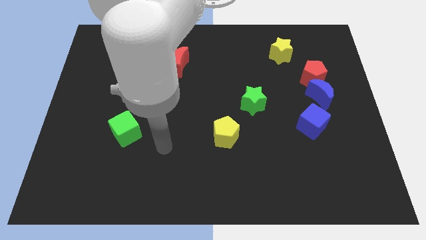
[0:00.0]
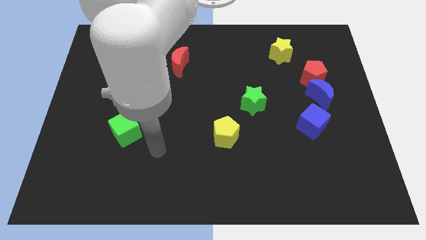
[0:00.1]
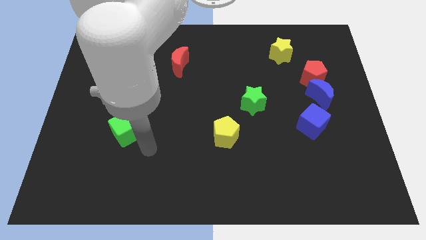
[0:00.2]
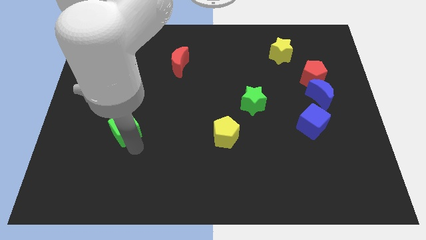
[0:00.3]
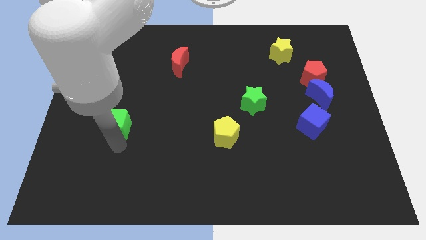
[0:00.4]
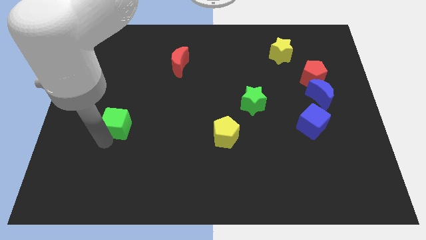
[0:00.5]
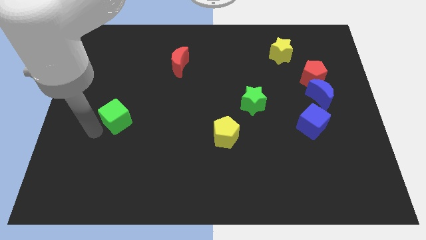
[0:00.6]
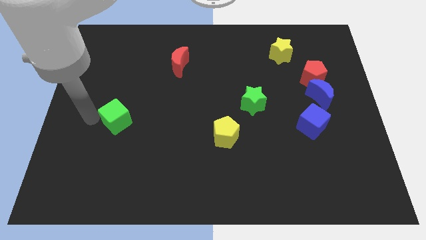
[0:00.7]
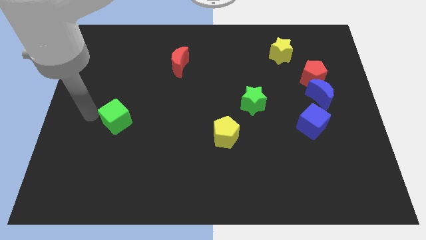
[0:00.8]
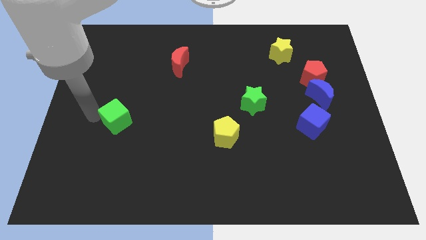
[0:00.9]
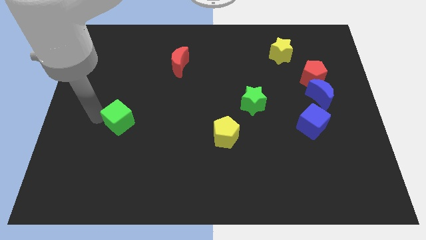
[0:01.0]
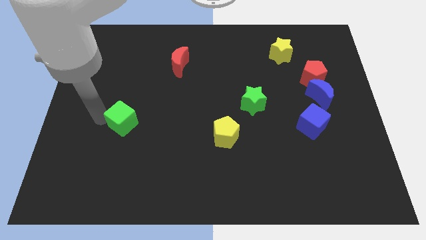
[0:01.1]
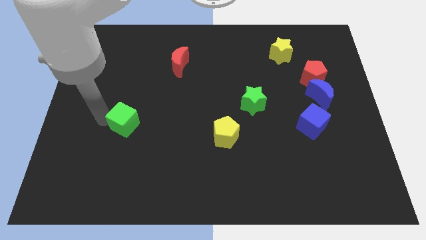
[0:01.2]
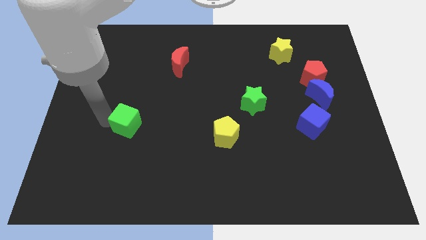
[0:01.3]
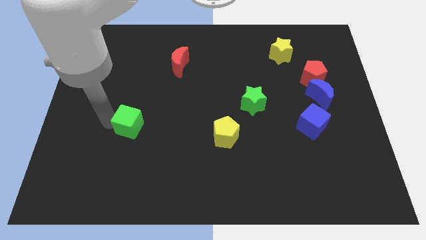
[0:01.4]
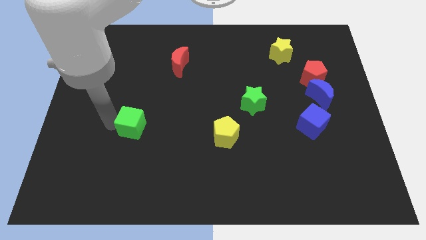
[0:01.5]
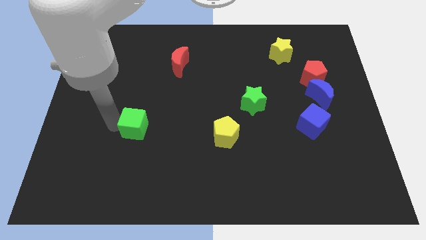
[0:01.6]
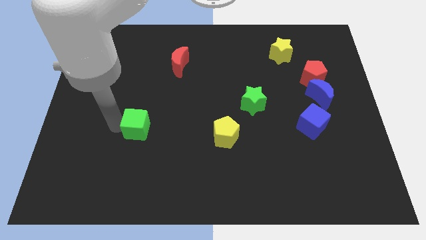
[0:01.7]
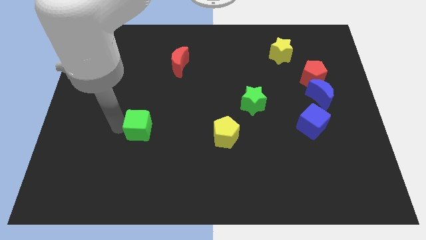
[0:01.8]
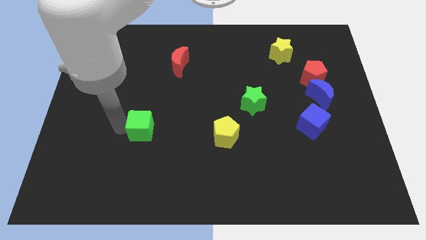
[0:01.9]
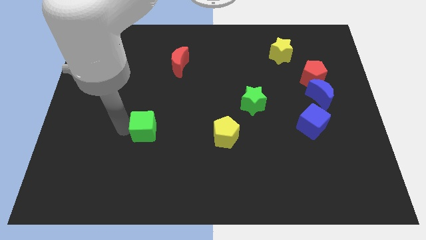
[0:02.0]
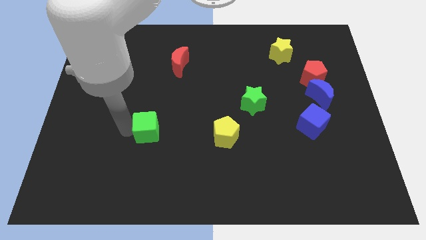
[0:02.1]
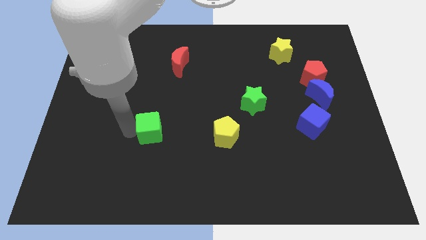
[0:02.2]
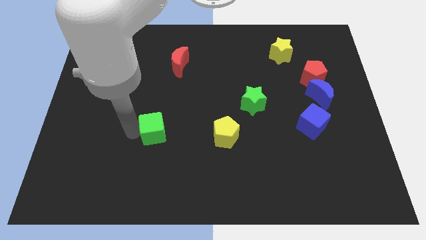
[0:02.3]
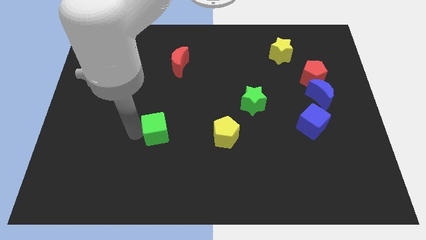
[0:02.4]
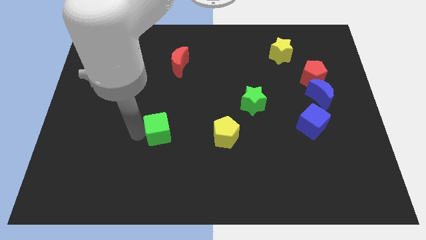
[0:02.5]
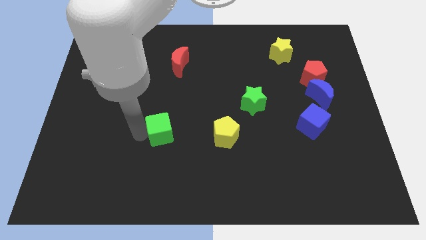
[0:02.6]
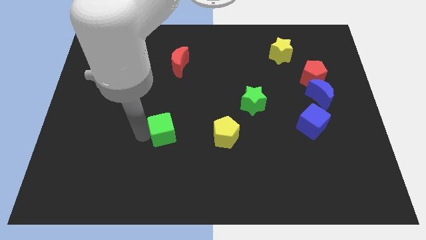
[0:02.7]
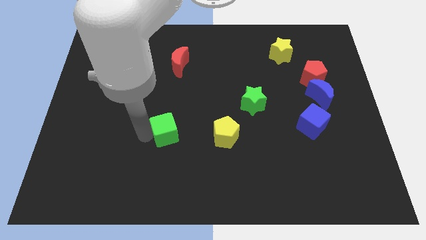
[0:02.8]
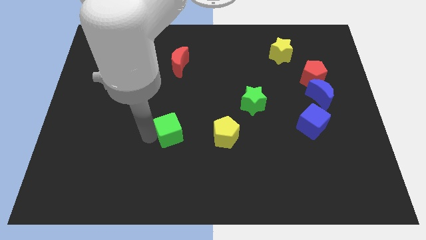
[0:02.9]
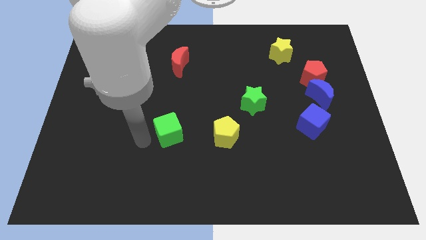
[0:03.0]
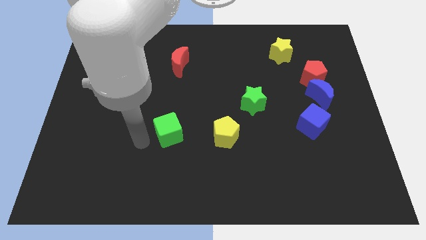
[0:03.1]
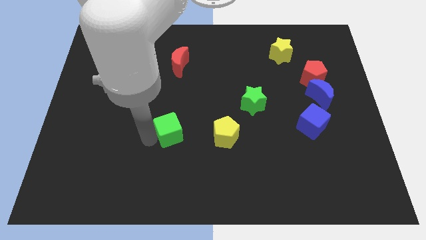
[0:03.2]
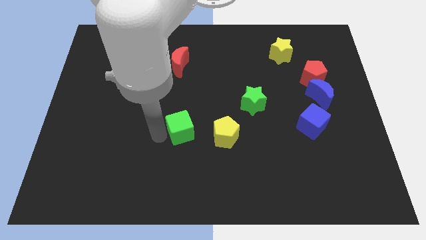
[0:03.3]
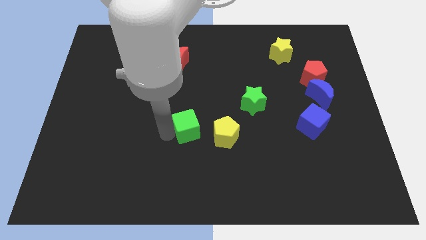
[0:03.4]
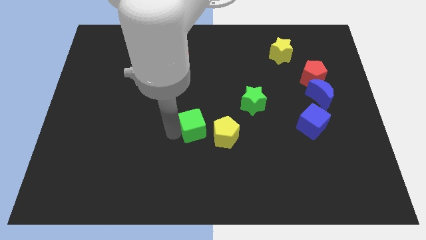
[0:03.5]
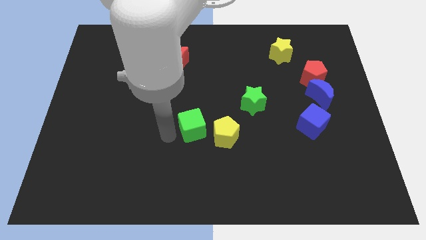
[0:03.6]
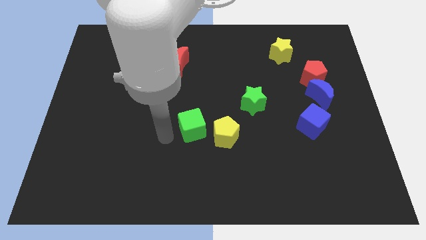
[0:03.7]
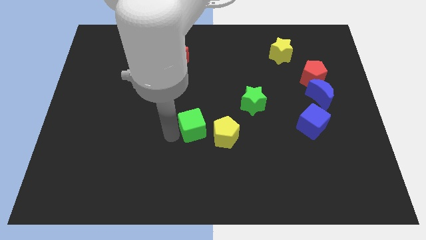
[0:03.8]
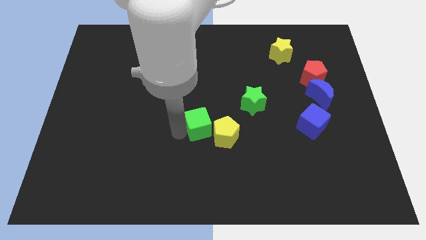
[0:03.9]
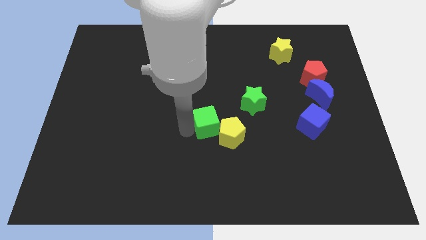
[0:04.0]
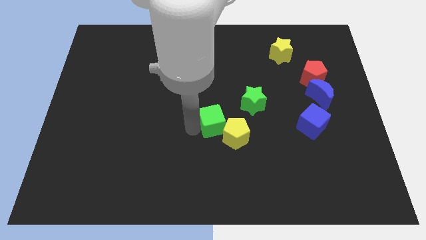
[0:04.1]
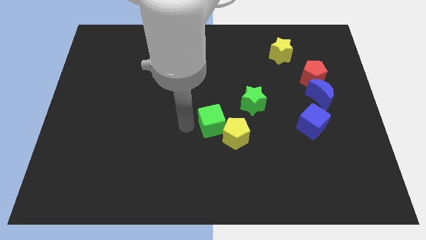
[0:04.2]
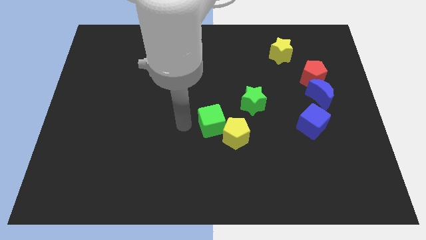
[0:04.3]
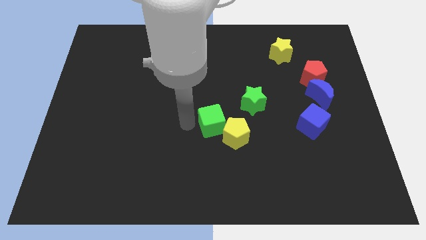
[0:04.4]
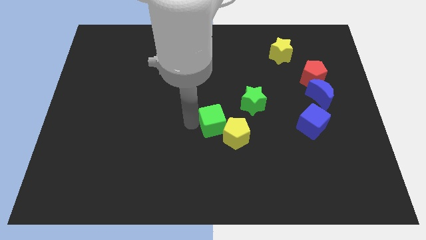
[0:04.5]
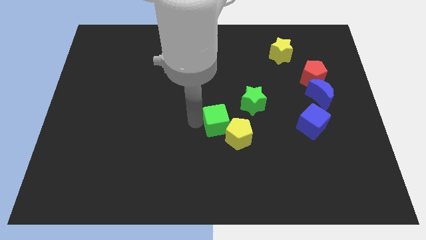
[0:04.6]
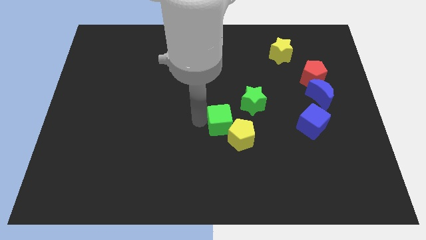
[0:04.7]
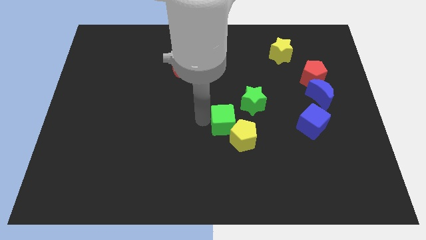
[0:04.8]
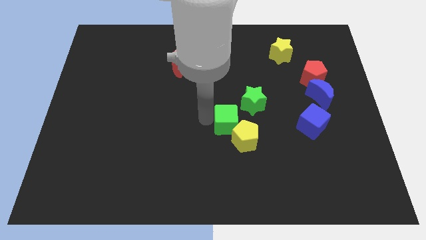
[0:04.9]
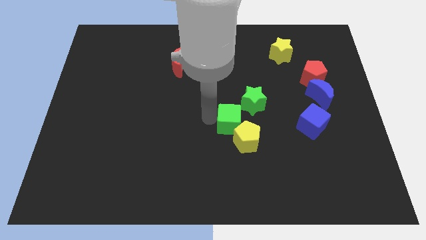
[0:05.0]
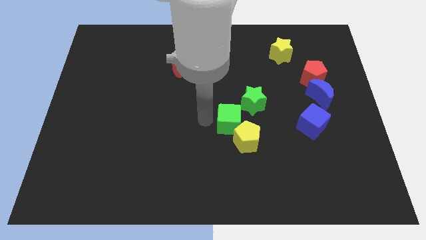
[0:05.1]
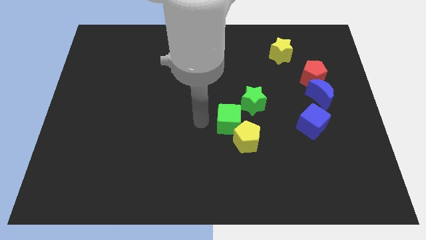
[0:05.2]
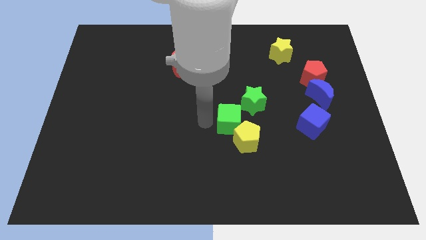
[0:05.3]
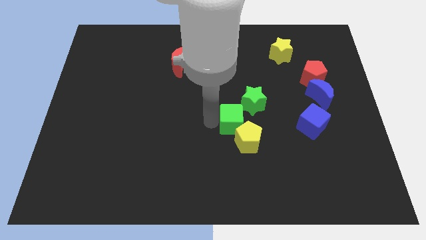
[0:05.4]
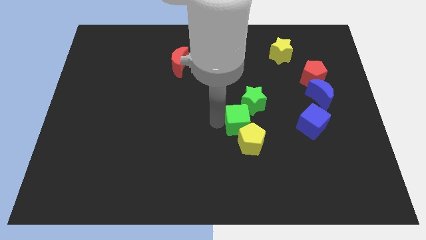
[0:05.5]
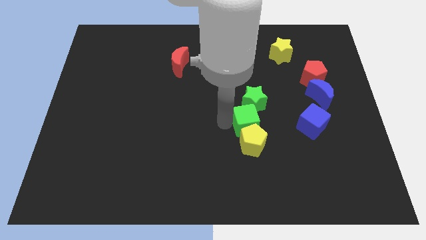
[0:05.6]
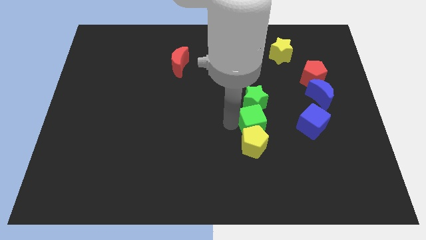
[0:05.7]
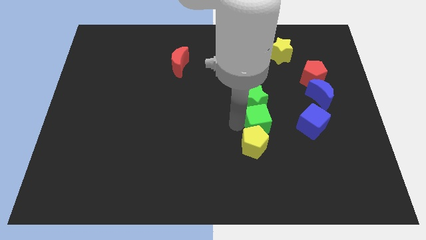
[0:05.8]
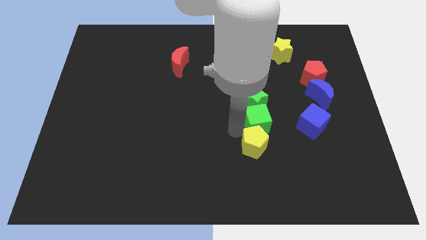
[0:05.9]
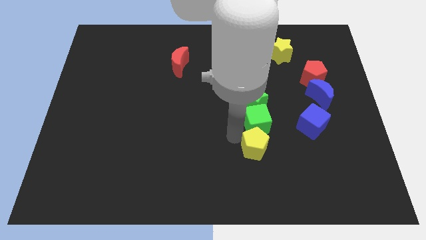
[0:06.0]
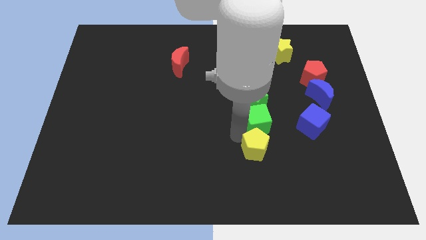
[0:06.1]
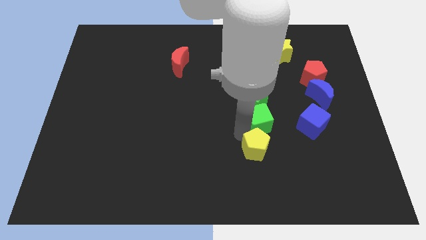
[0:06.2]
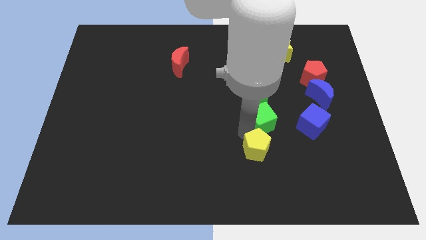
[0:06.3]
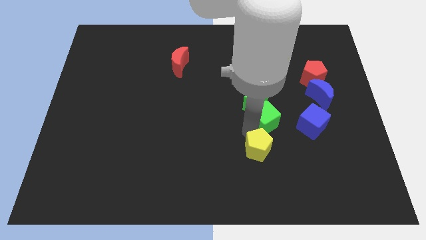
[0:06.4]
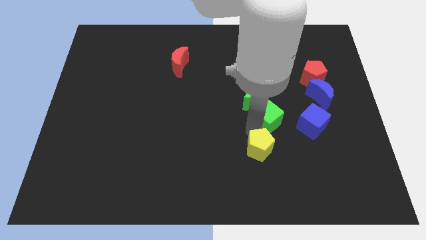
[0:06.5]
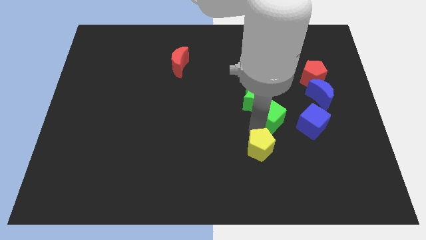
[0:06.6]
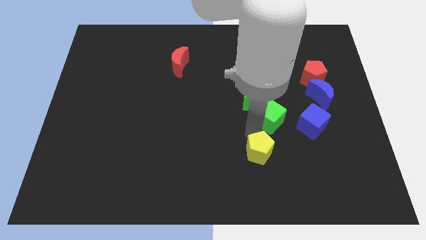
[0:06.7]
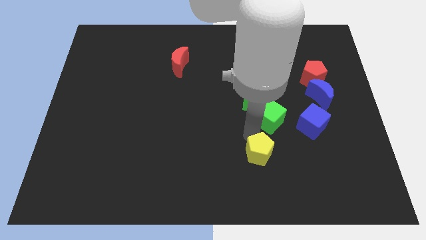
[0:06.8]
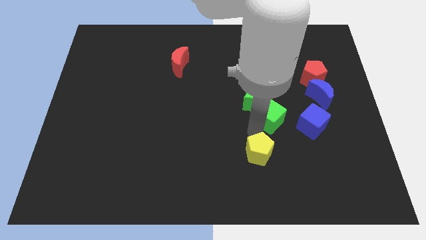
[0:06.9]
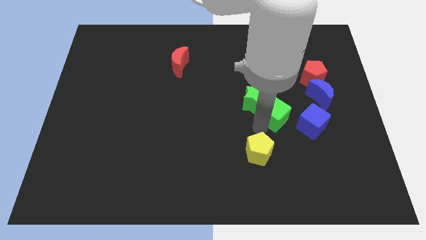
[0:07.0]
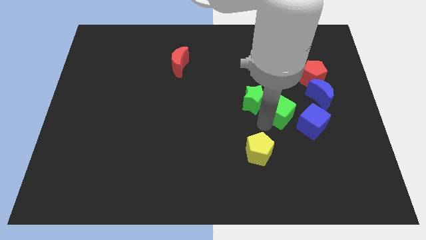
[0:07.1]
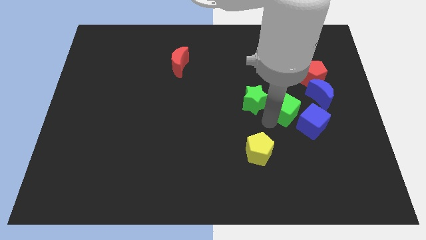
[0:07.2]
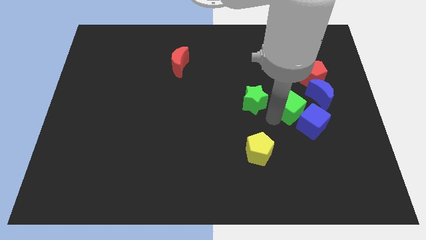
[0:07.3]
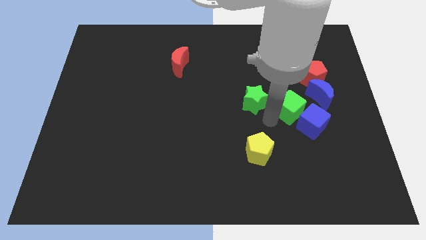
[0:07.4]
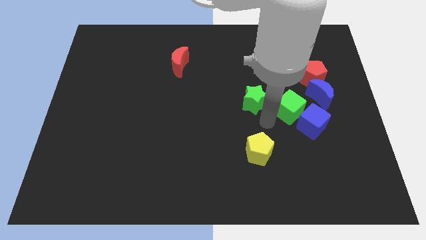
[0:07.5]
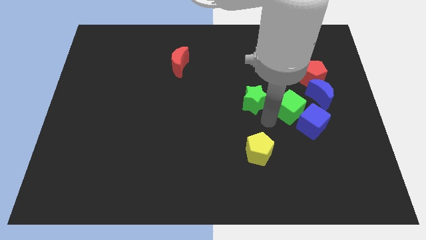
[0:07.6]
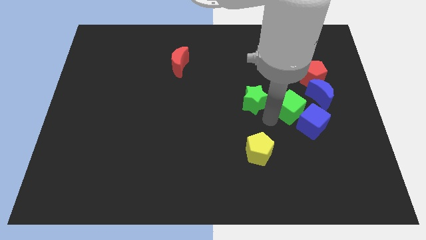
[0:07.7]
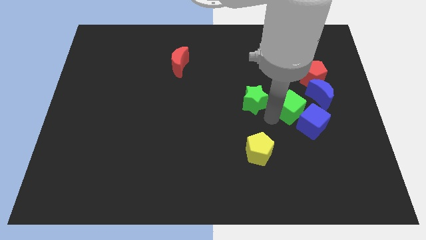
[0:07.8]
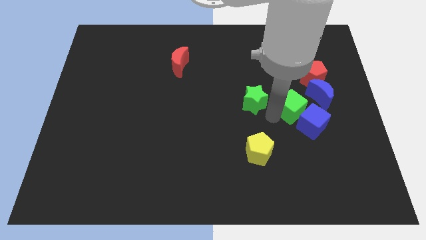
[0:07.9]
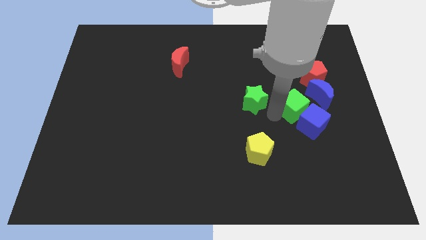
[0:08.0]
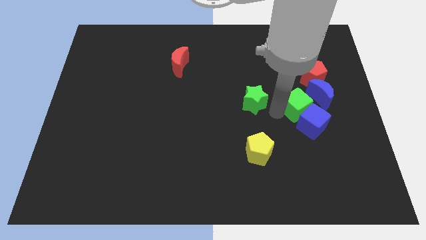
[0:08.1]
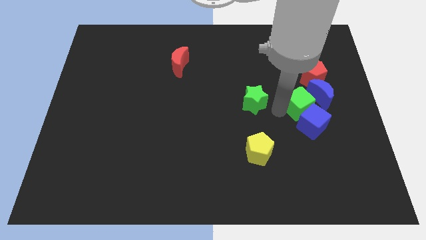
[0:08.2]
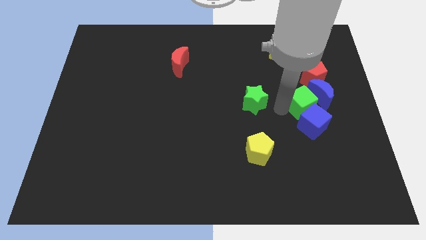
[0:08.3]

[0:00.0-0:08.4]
put the green cube close to the blue moon
